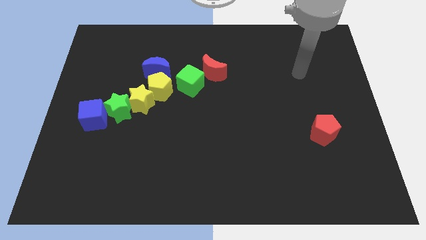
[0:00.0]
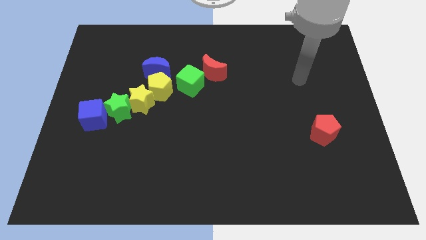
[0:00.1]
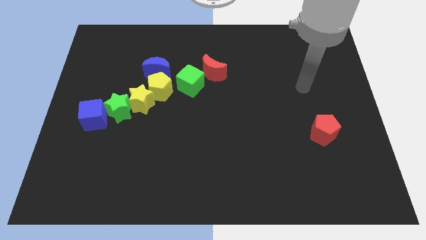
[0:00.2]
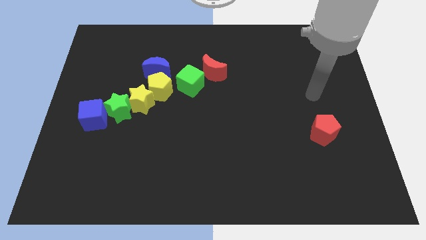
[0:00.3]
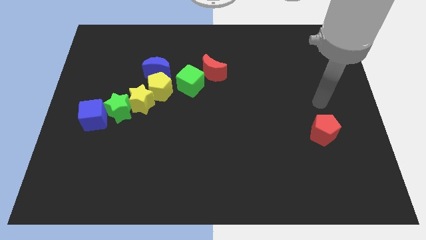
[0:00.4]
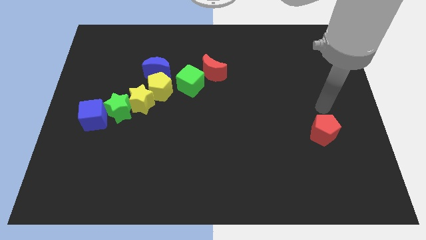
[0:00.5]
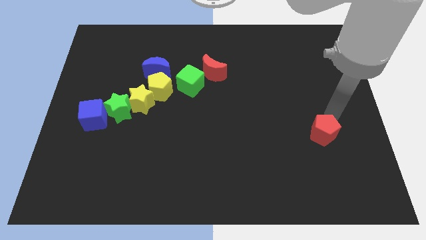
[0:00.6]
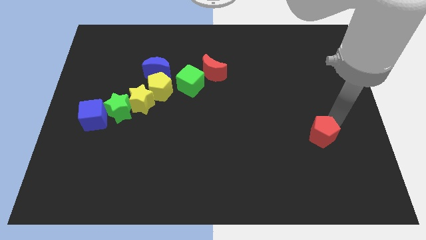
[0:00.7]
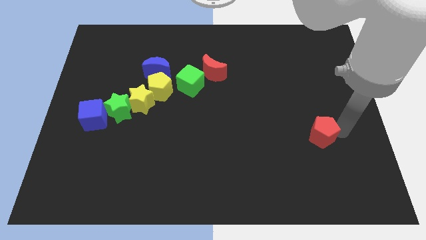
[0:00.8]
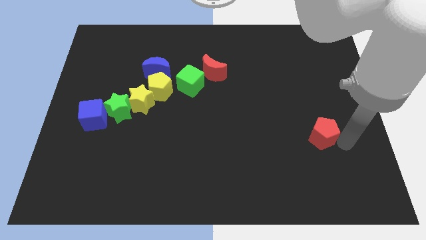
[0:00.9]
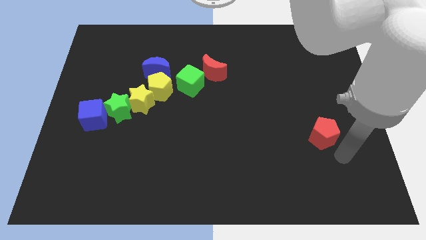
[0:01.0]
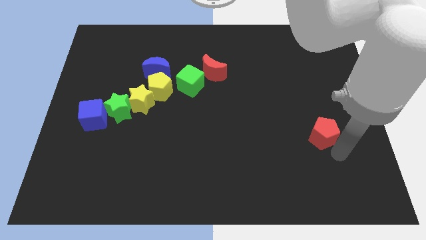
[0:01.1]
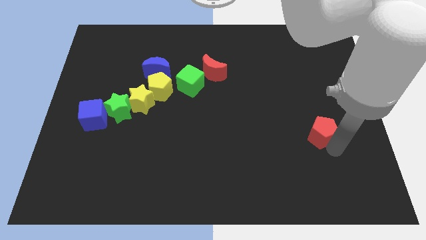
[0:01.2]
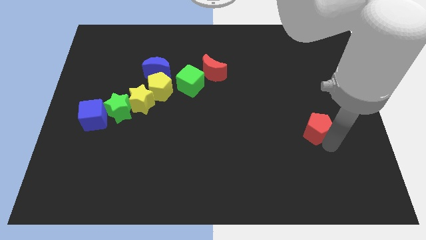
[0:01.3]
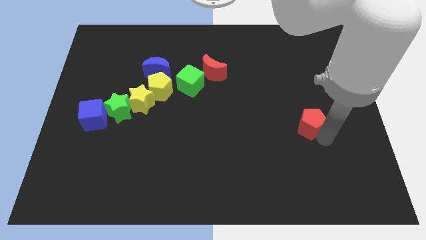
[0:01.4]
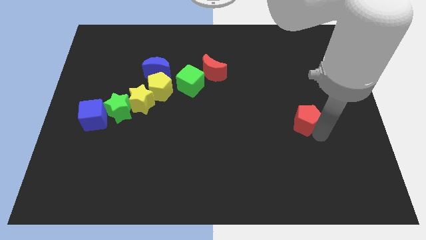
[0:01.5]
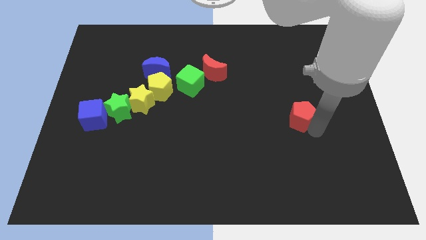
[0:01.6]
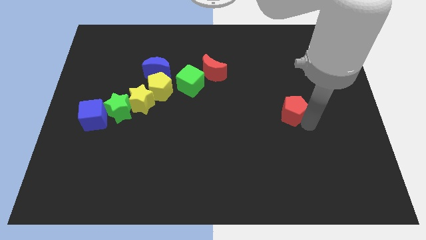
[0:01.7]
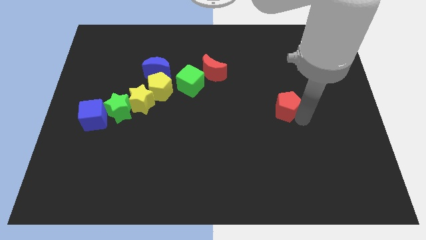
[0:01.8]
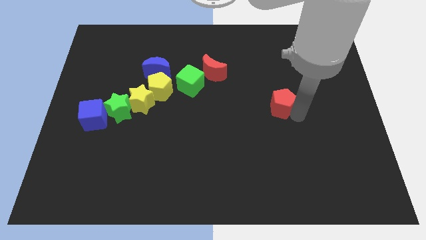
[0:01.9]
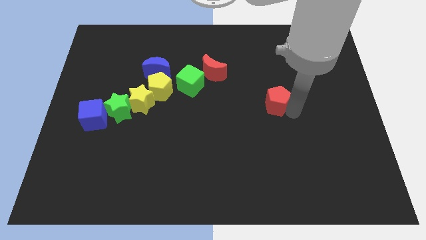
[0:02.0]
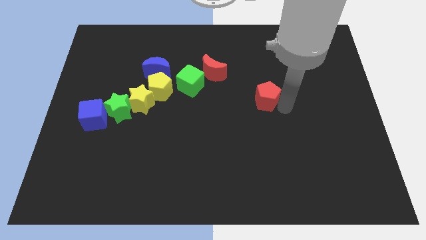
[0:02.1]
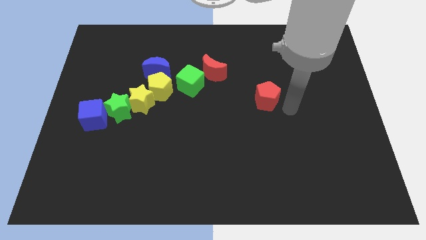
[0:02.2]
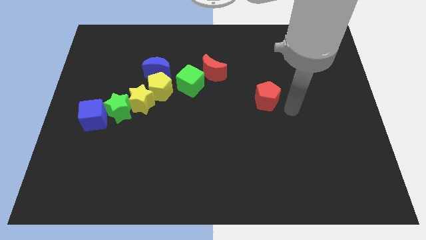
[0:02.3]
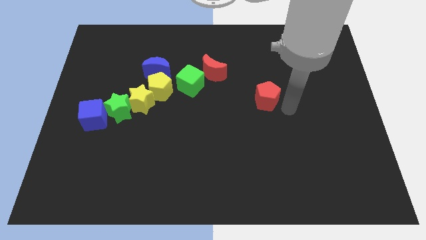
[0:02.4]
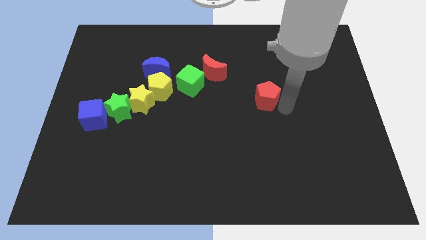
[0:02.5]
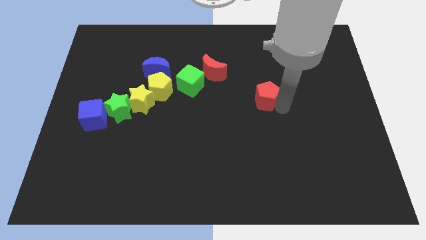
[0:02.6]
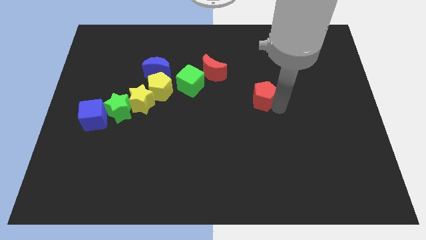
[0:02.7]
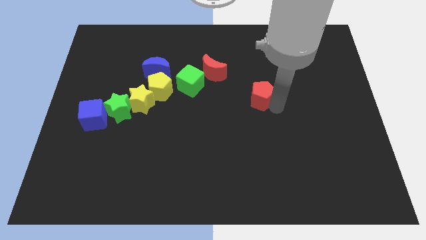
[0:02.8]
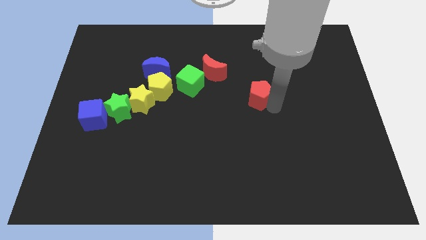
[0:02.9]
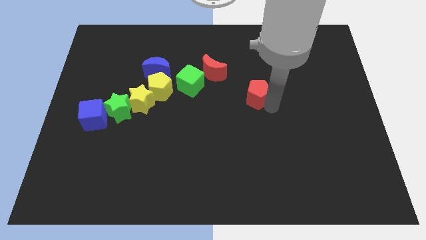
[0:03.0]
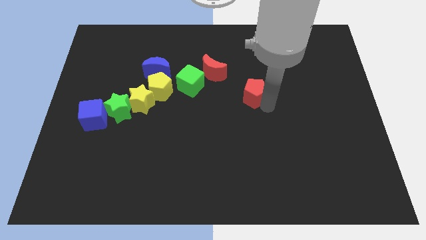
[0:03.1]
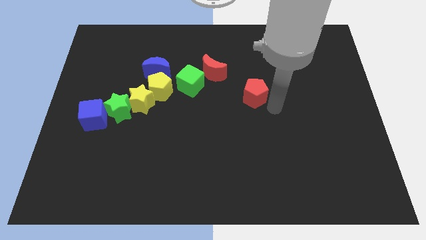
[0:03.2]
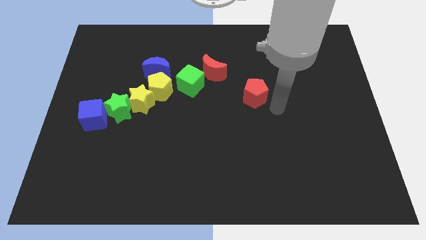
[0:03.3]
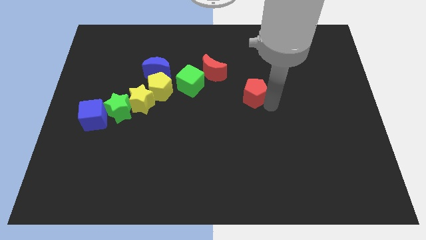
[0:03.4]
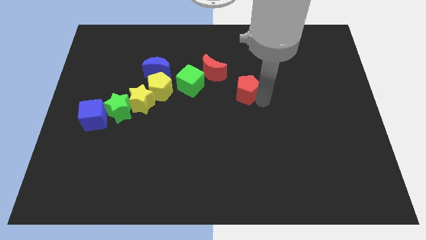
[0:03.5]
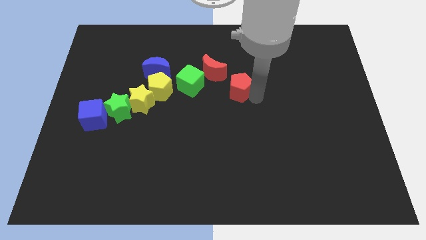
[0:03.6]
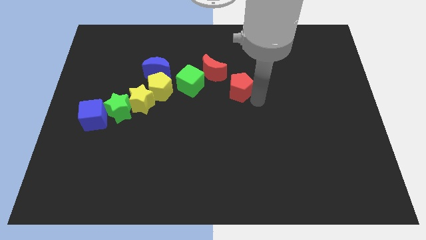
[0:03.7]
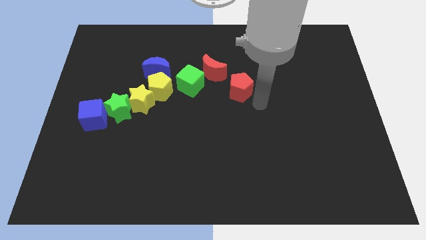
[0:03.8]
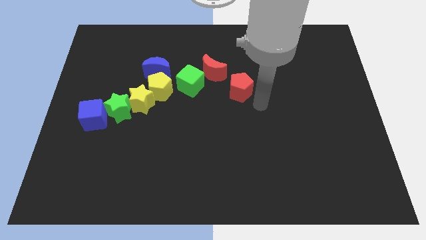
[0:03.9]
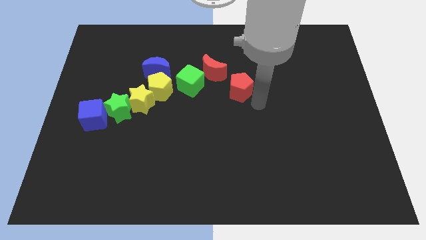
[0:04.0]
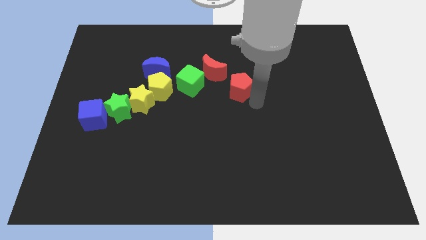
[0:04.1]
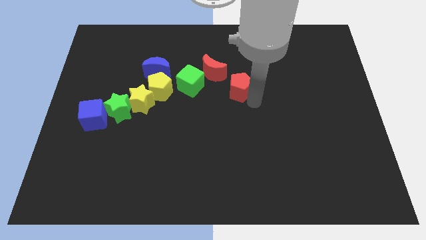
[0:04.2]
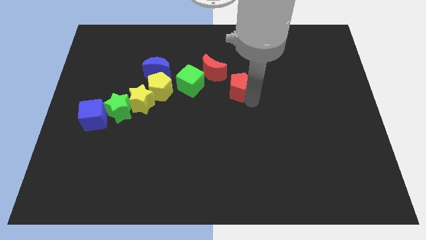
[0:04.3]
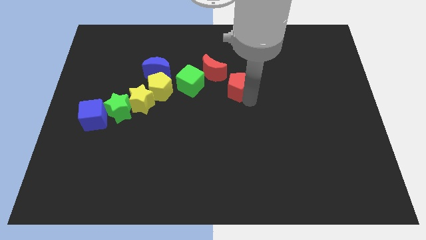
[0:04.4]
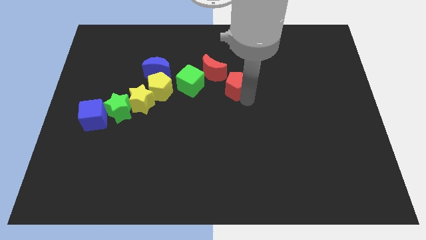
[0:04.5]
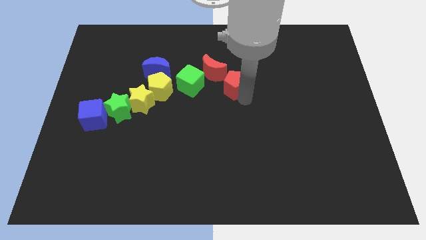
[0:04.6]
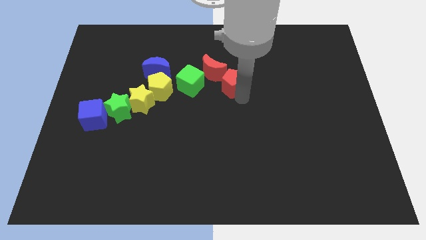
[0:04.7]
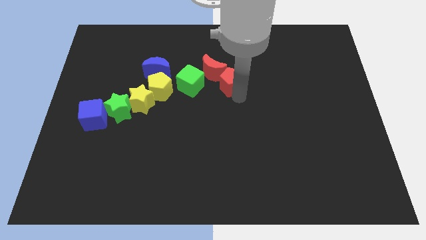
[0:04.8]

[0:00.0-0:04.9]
slide the red pentagon close to the red moon

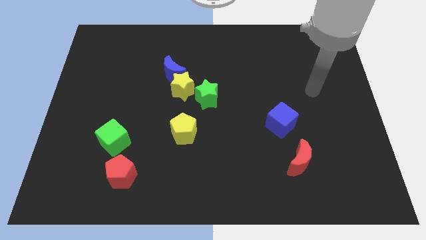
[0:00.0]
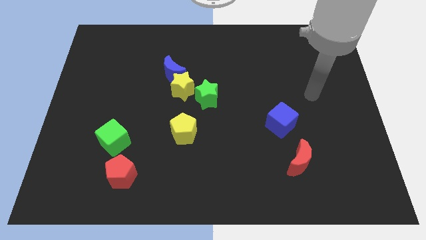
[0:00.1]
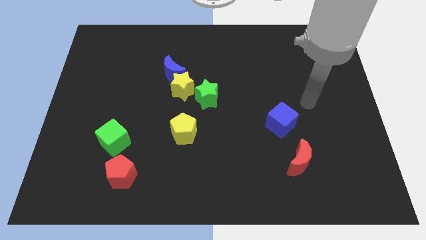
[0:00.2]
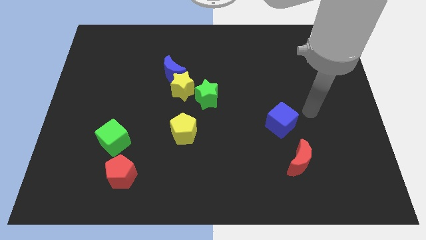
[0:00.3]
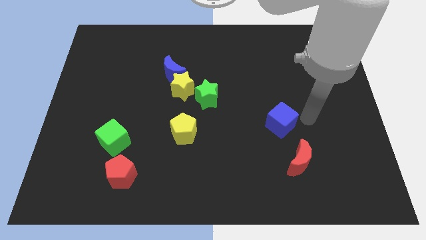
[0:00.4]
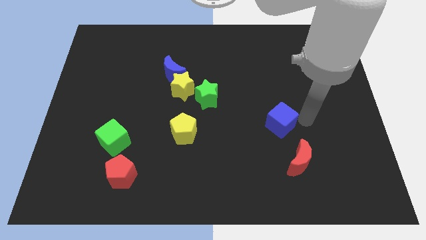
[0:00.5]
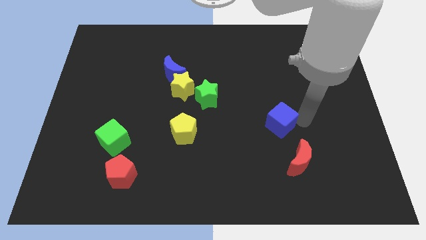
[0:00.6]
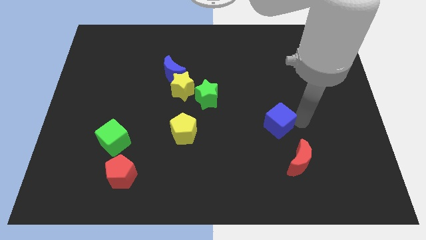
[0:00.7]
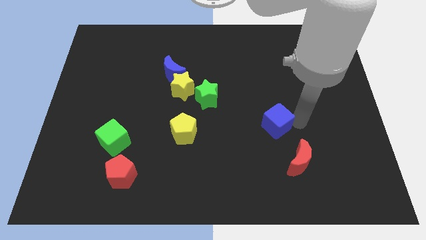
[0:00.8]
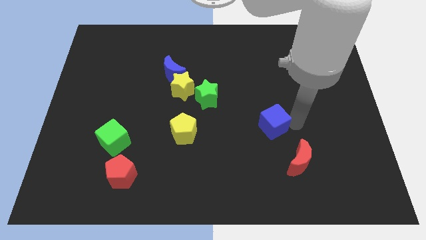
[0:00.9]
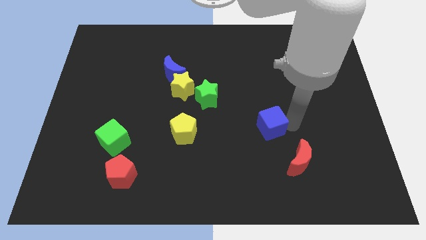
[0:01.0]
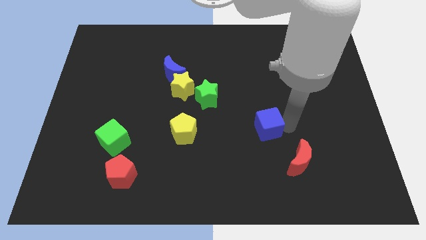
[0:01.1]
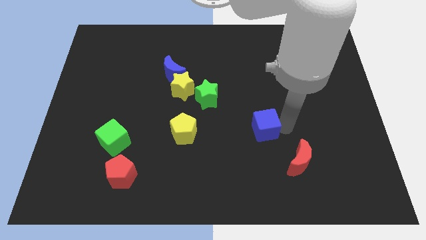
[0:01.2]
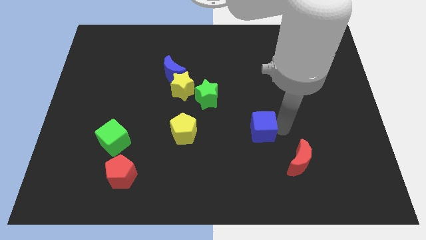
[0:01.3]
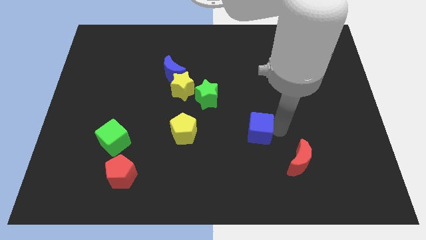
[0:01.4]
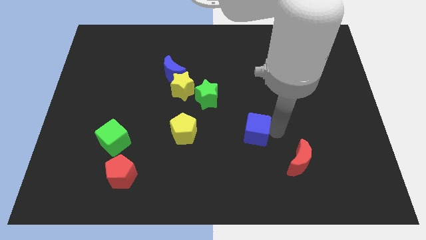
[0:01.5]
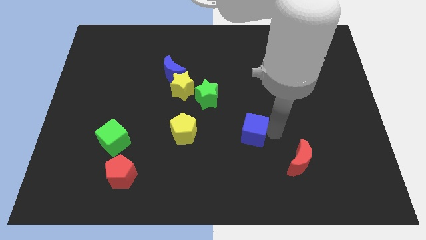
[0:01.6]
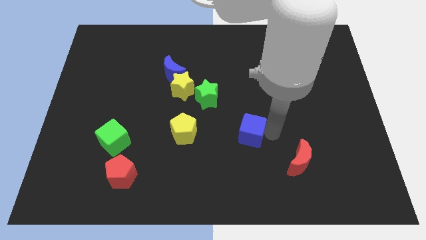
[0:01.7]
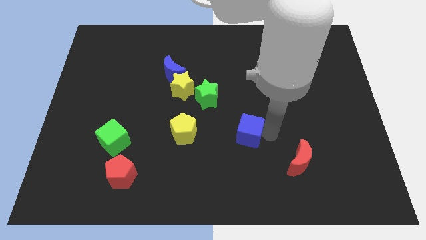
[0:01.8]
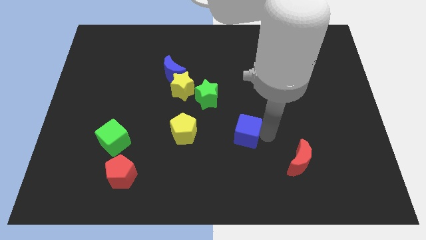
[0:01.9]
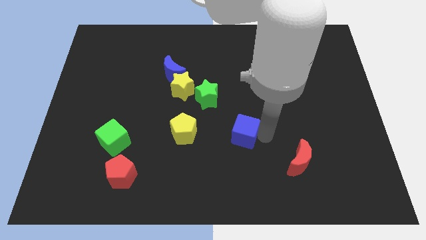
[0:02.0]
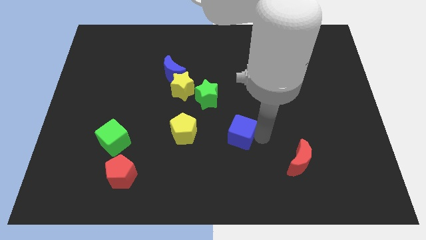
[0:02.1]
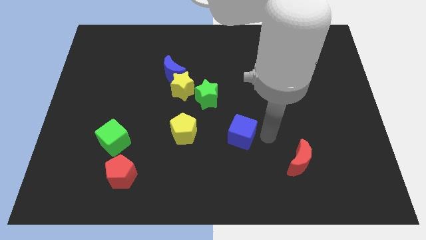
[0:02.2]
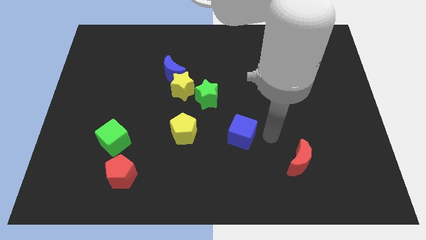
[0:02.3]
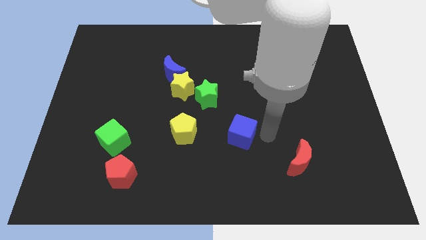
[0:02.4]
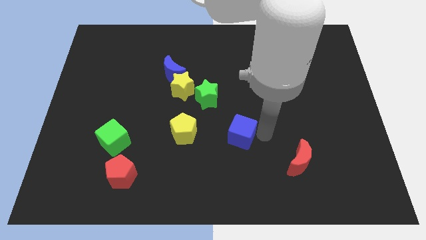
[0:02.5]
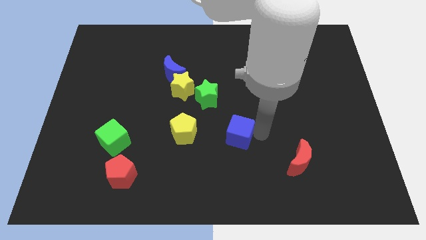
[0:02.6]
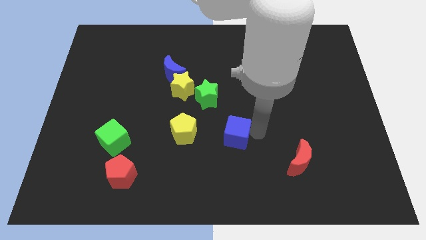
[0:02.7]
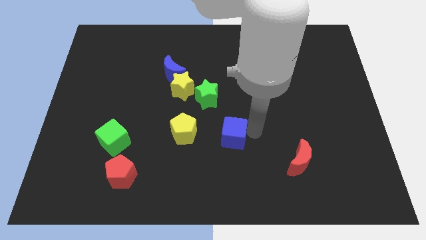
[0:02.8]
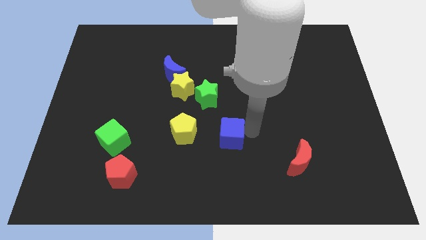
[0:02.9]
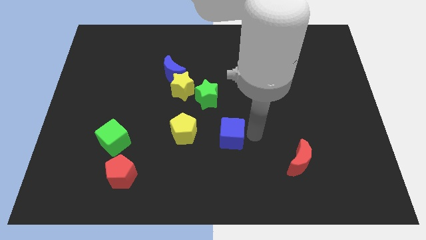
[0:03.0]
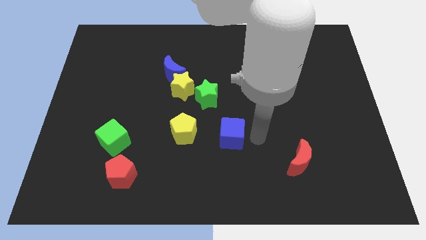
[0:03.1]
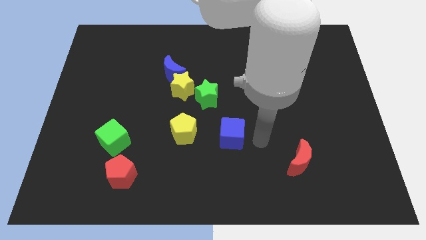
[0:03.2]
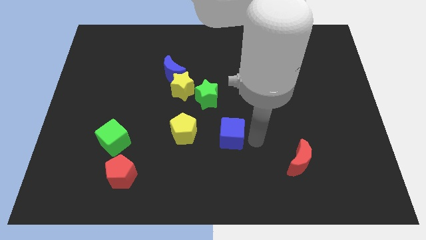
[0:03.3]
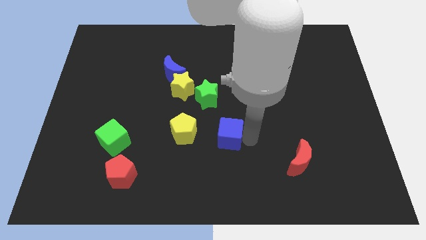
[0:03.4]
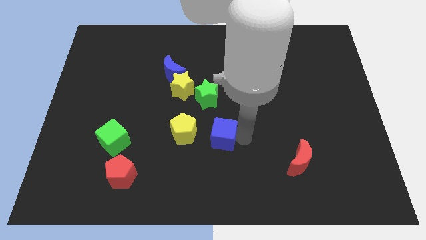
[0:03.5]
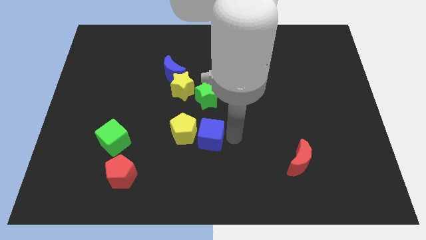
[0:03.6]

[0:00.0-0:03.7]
put the blue cube next to the yellow pentagon
